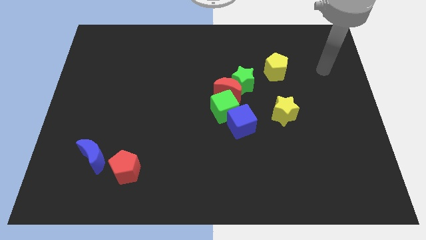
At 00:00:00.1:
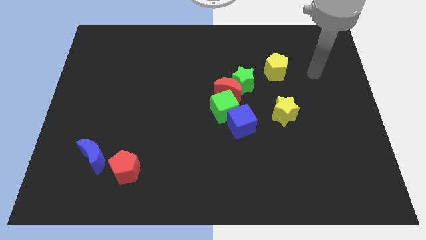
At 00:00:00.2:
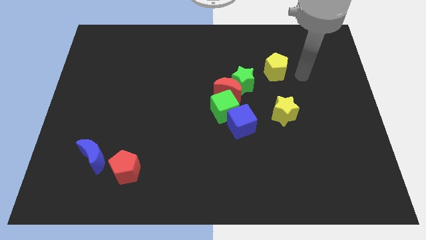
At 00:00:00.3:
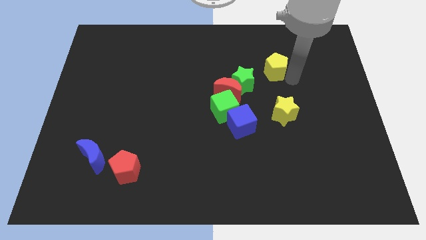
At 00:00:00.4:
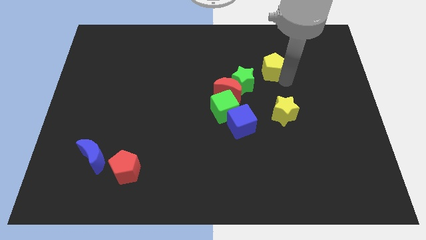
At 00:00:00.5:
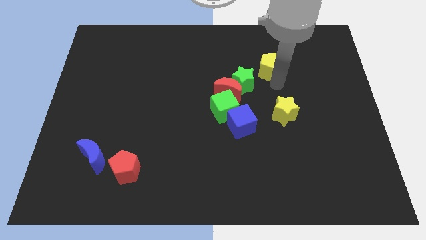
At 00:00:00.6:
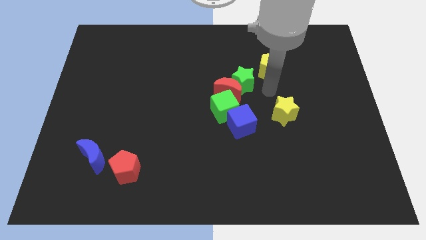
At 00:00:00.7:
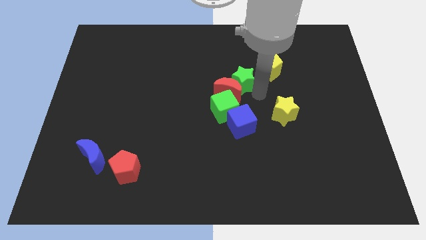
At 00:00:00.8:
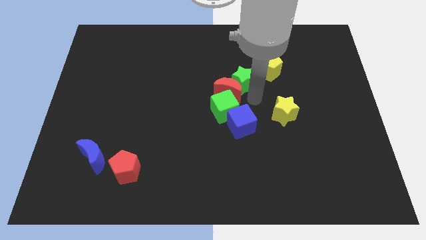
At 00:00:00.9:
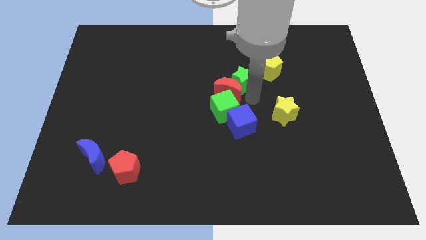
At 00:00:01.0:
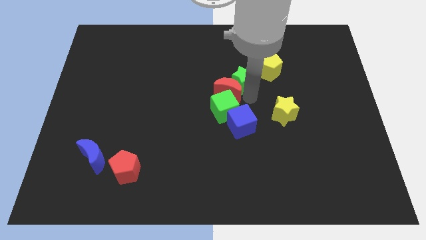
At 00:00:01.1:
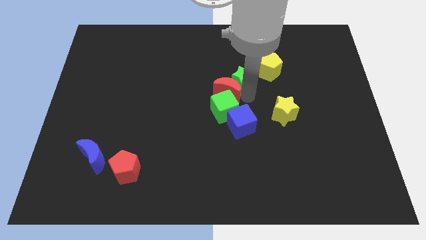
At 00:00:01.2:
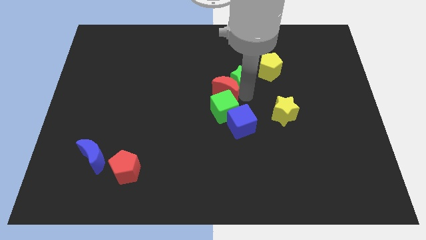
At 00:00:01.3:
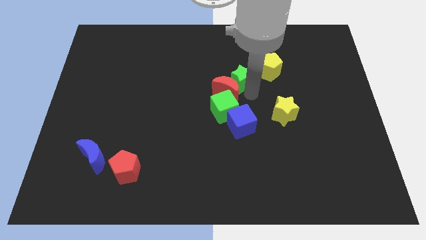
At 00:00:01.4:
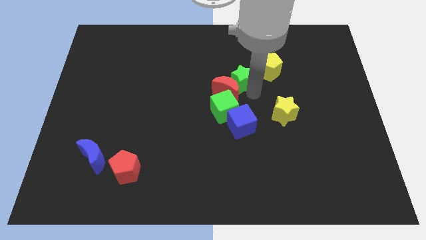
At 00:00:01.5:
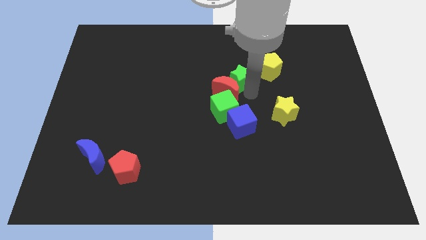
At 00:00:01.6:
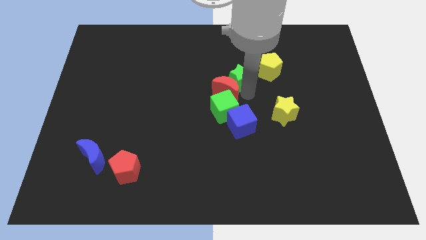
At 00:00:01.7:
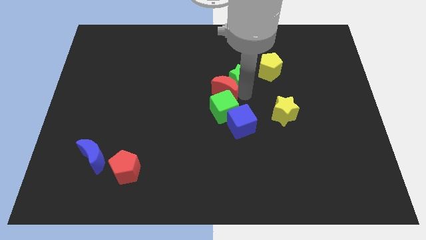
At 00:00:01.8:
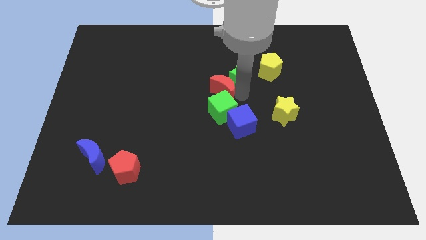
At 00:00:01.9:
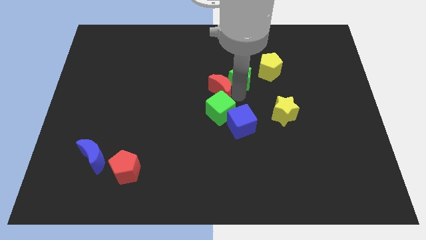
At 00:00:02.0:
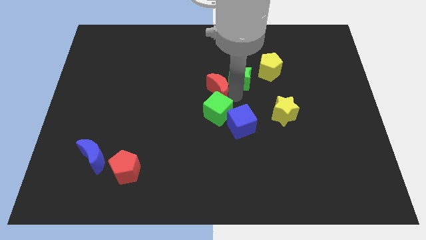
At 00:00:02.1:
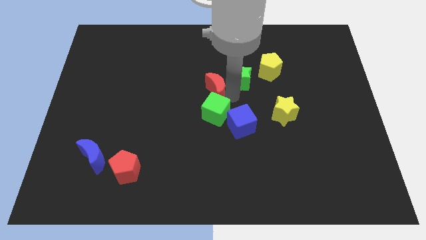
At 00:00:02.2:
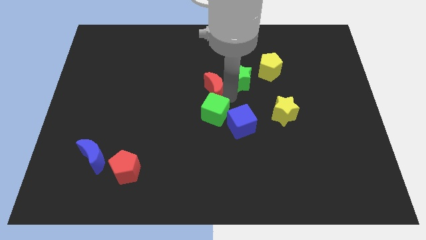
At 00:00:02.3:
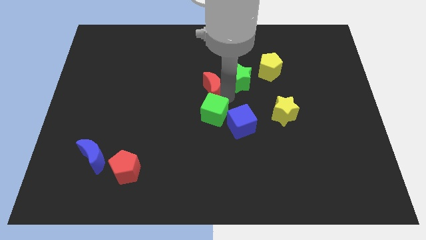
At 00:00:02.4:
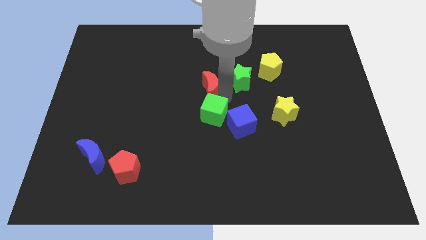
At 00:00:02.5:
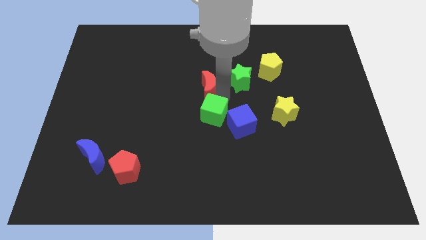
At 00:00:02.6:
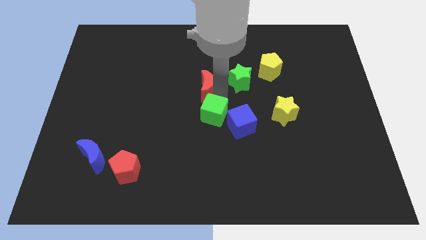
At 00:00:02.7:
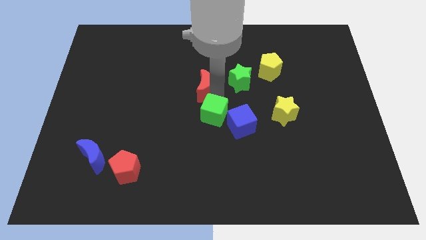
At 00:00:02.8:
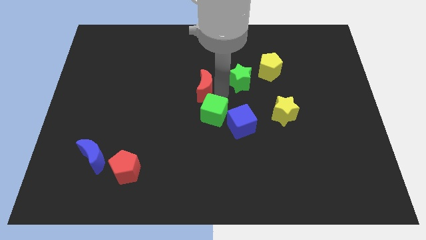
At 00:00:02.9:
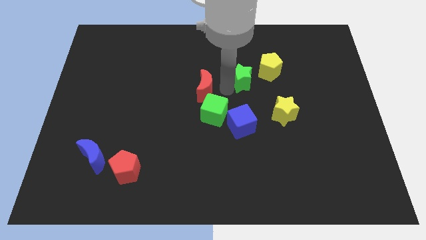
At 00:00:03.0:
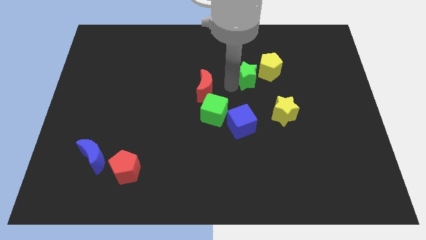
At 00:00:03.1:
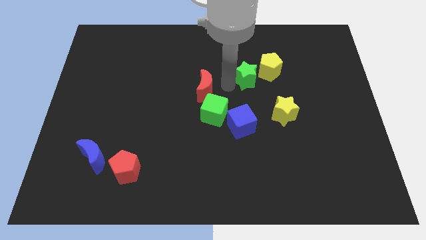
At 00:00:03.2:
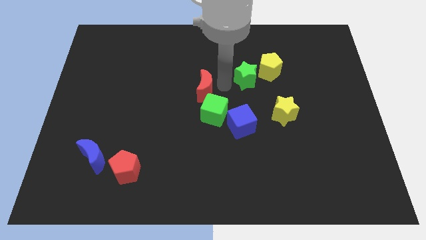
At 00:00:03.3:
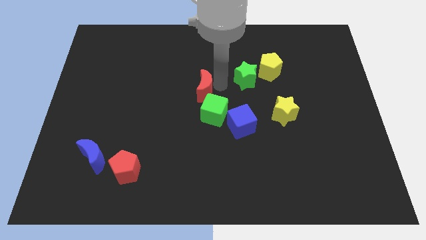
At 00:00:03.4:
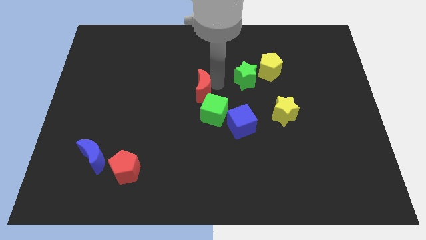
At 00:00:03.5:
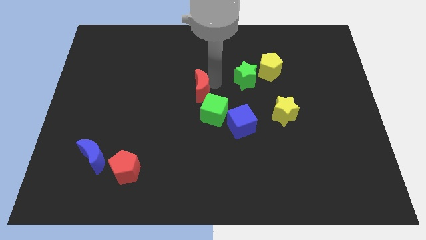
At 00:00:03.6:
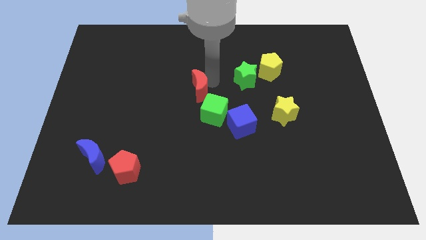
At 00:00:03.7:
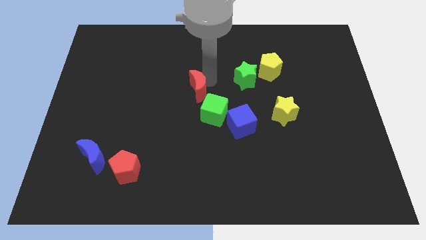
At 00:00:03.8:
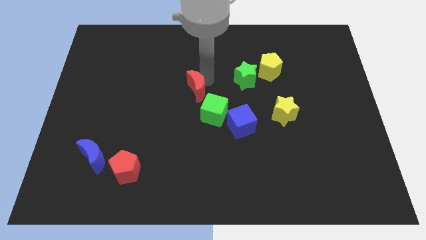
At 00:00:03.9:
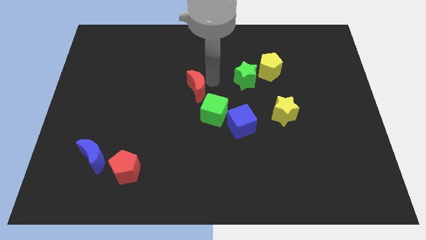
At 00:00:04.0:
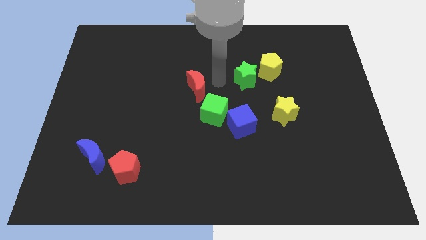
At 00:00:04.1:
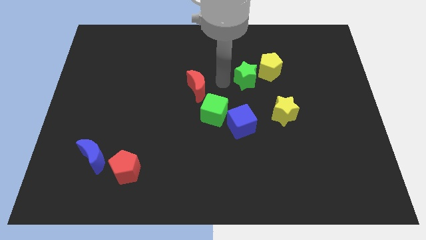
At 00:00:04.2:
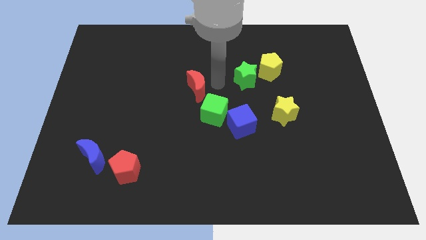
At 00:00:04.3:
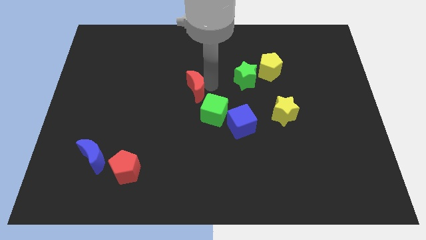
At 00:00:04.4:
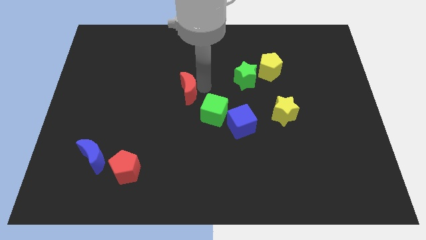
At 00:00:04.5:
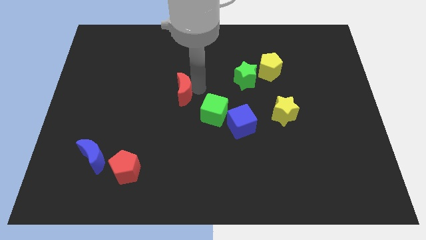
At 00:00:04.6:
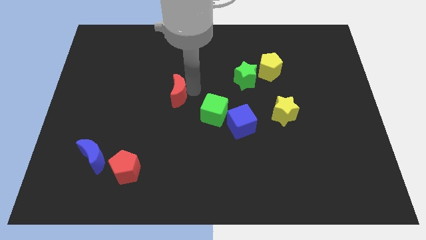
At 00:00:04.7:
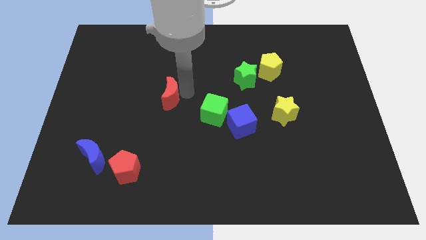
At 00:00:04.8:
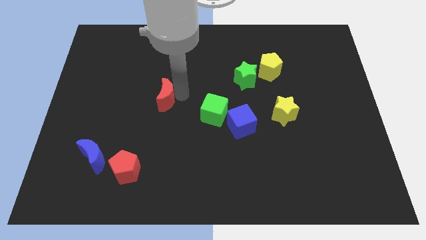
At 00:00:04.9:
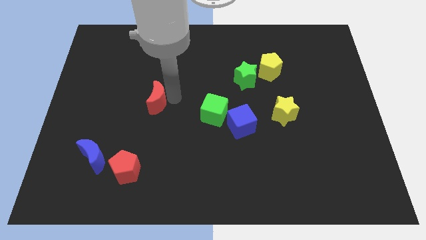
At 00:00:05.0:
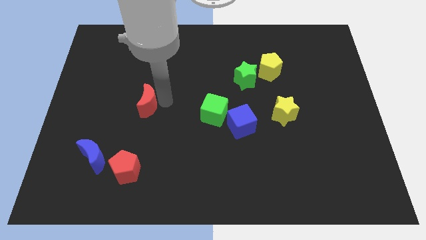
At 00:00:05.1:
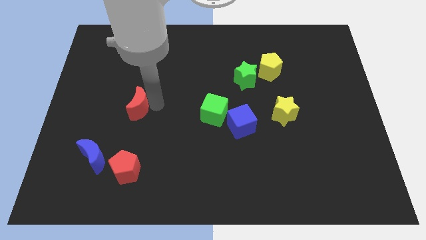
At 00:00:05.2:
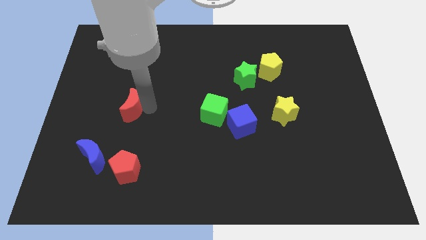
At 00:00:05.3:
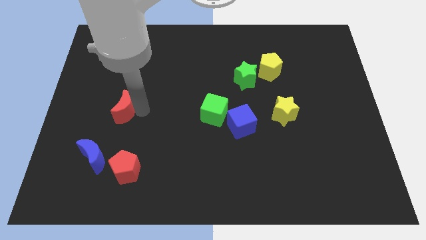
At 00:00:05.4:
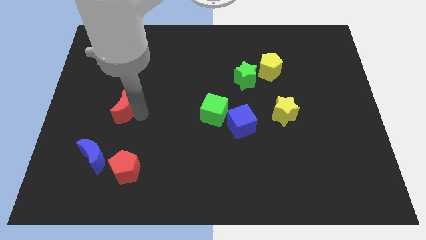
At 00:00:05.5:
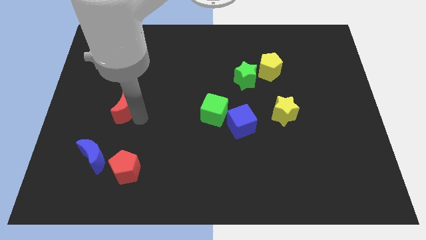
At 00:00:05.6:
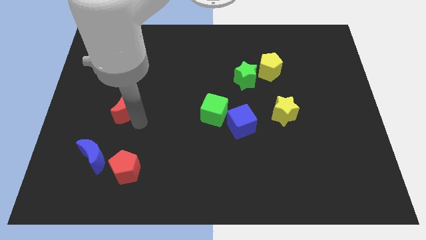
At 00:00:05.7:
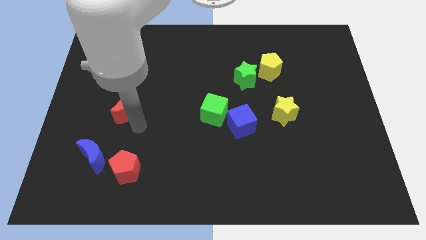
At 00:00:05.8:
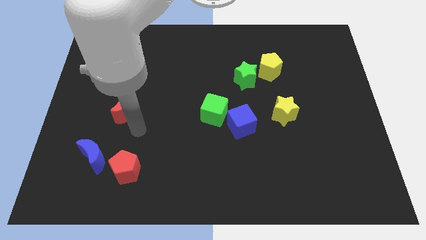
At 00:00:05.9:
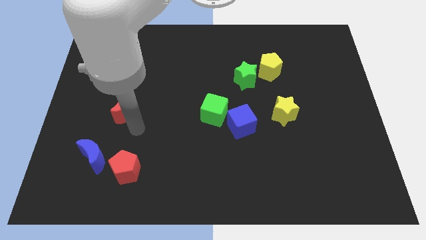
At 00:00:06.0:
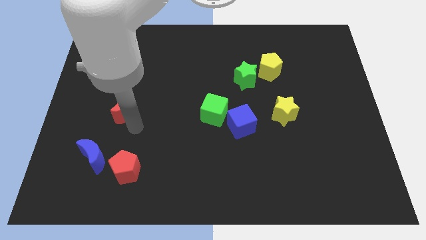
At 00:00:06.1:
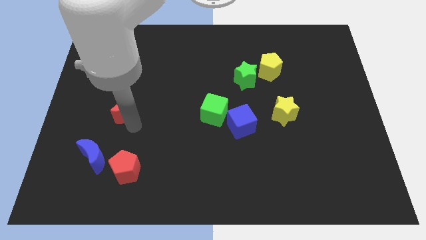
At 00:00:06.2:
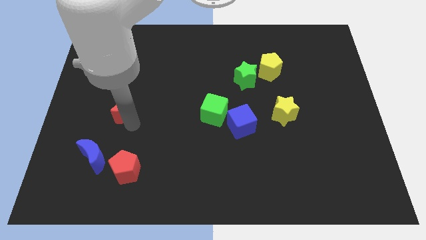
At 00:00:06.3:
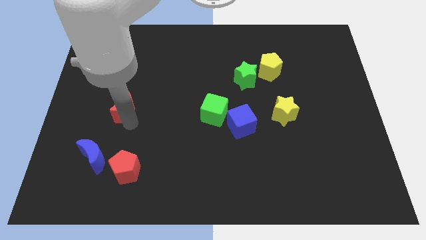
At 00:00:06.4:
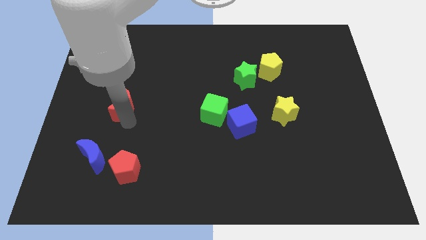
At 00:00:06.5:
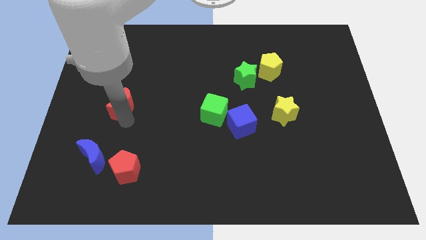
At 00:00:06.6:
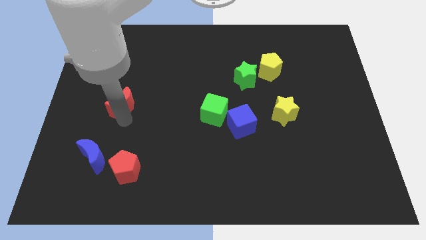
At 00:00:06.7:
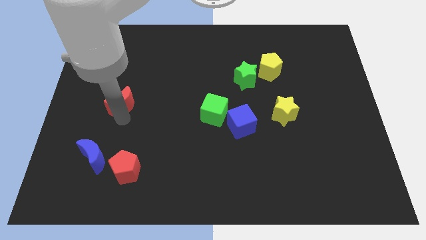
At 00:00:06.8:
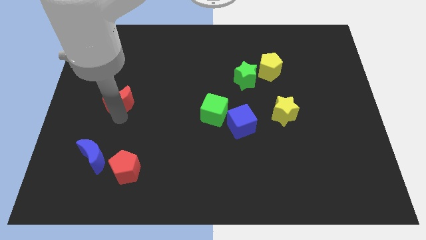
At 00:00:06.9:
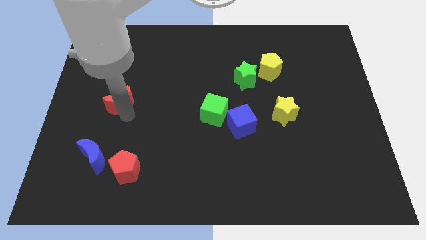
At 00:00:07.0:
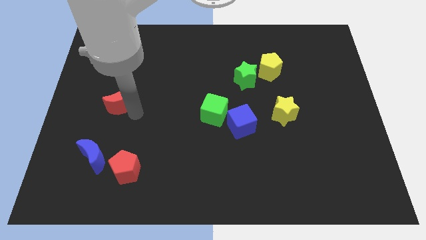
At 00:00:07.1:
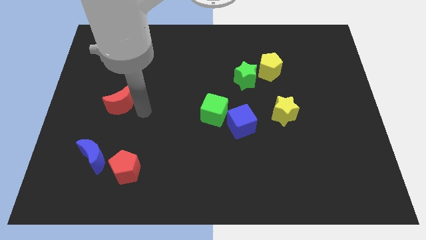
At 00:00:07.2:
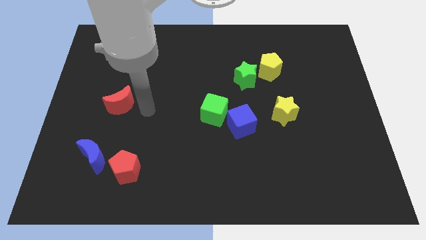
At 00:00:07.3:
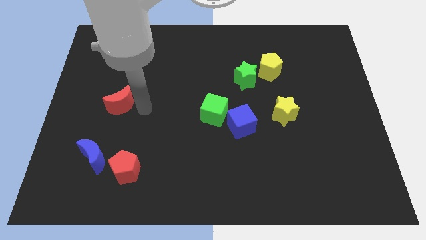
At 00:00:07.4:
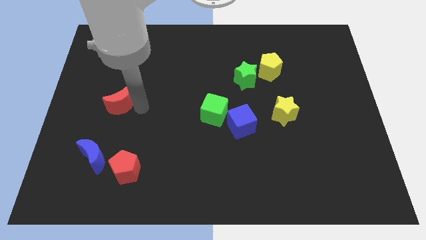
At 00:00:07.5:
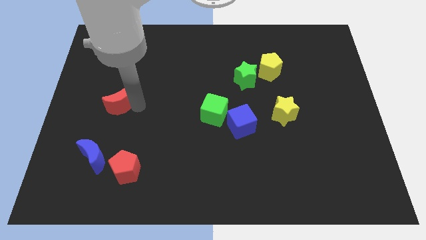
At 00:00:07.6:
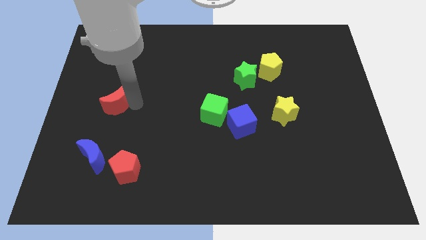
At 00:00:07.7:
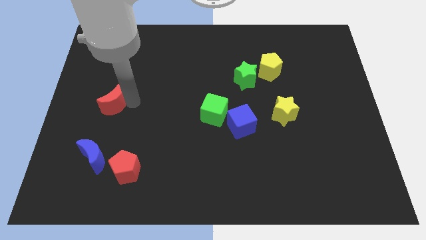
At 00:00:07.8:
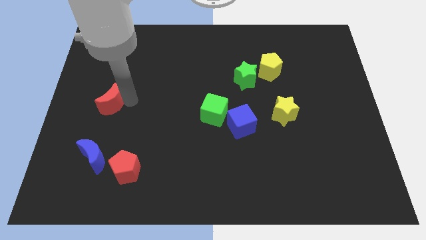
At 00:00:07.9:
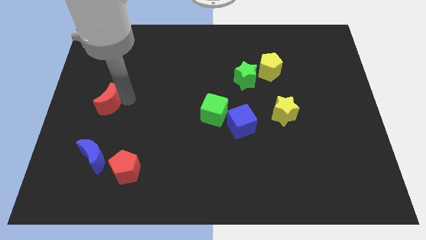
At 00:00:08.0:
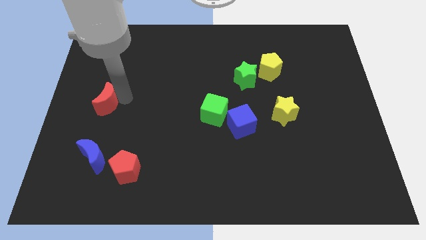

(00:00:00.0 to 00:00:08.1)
slide the red moon to the center left
